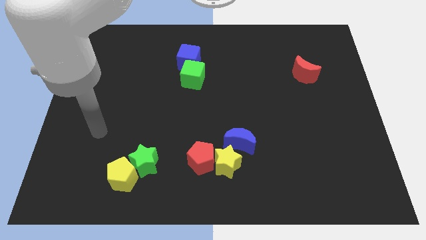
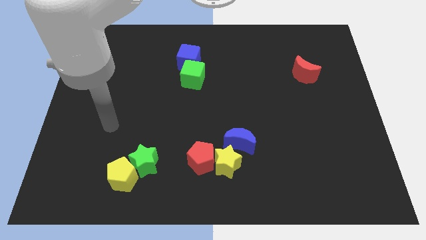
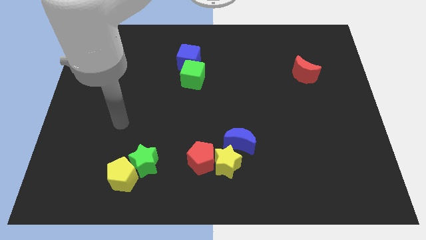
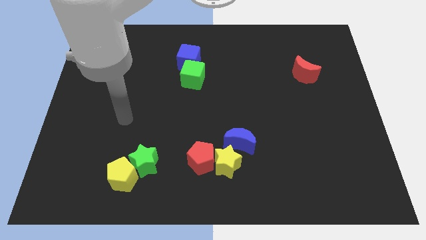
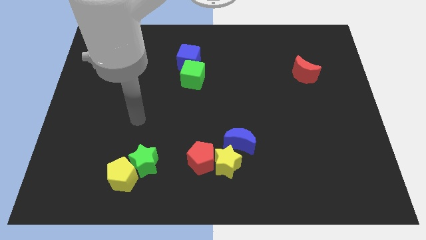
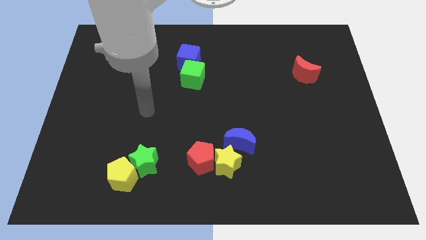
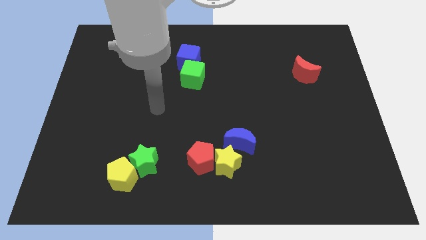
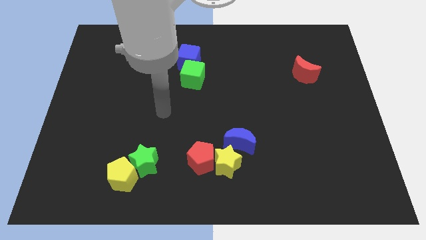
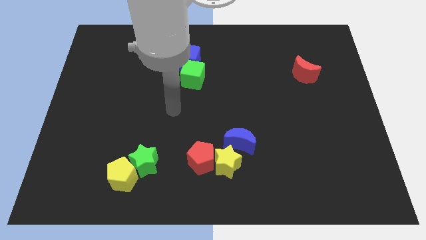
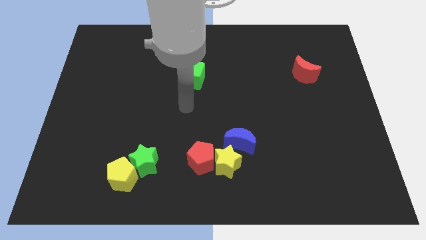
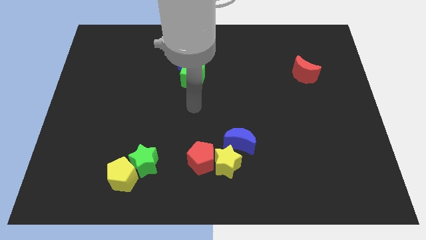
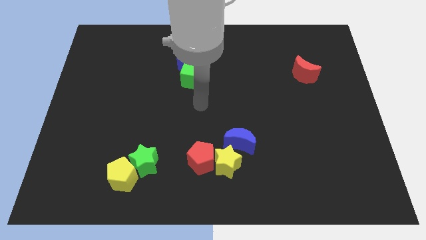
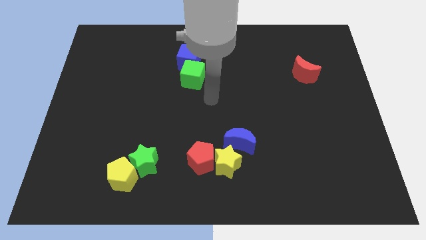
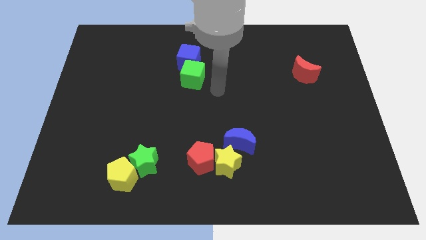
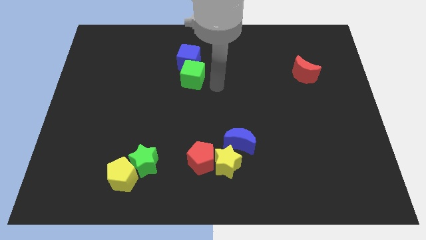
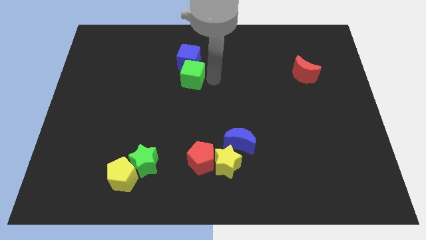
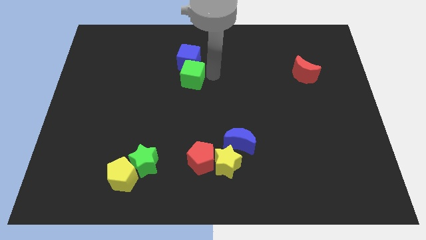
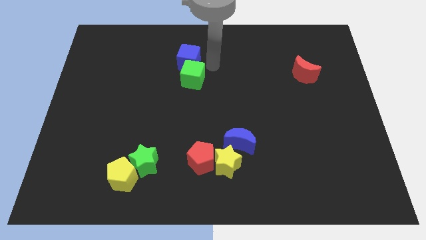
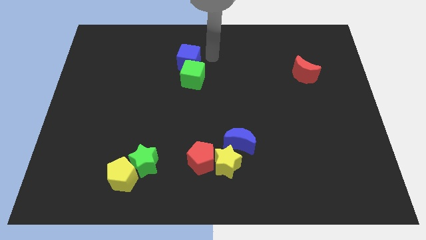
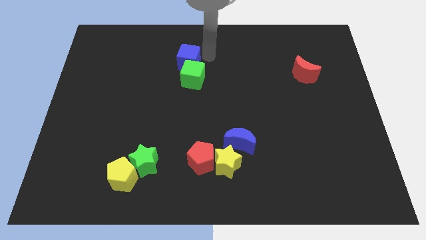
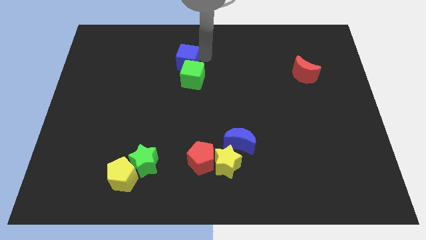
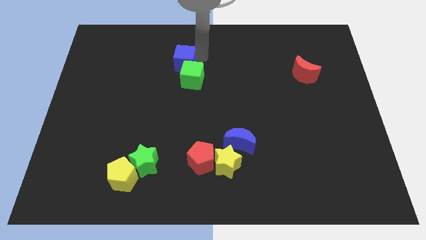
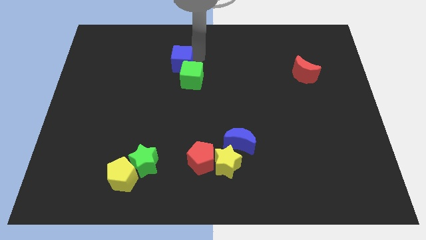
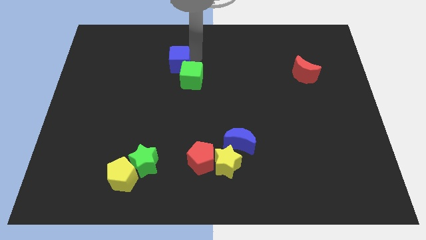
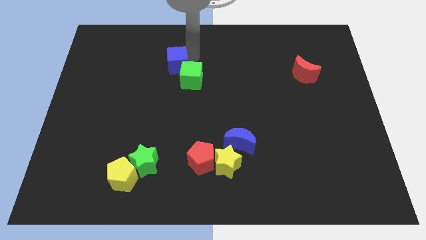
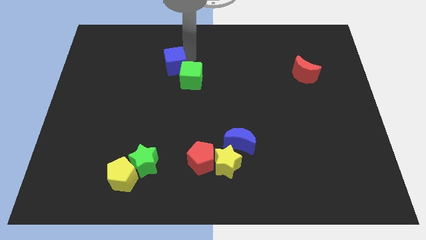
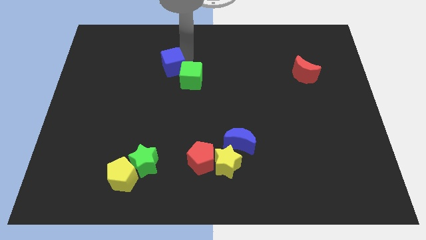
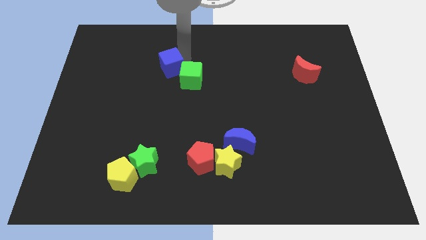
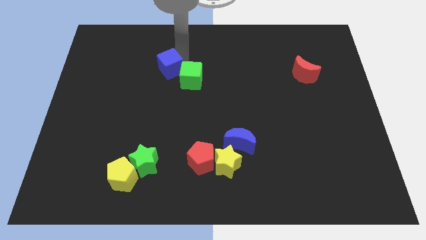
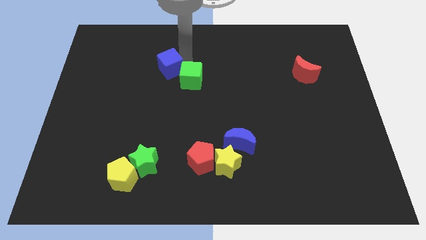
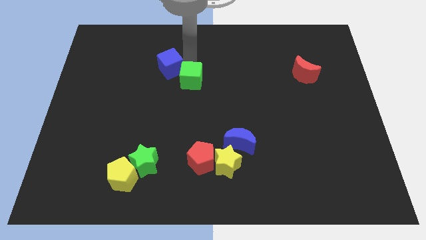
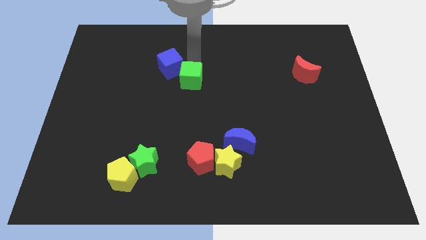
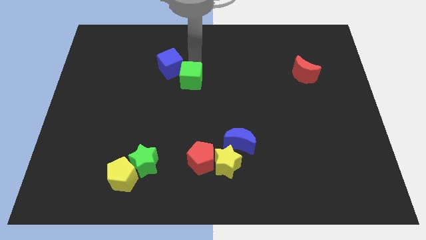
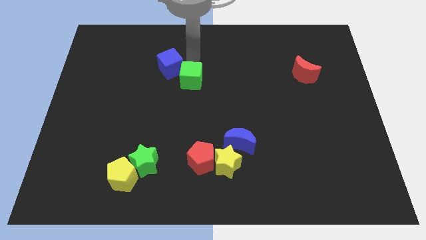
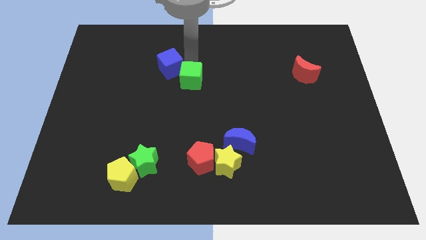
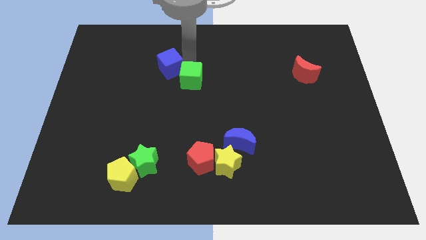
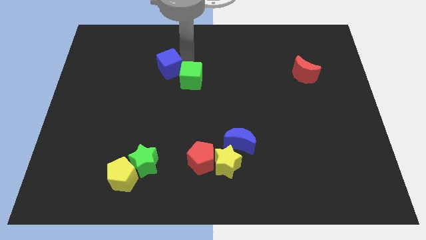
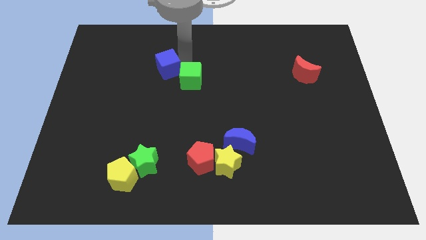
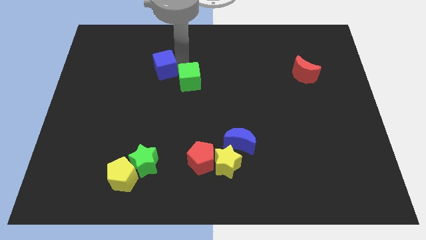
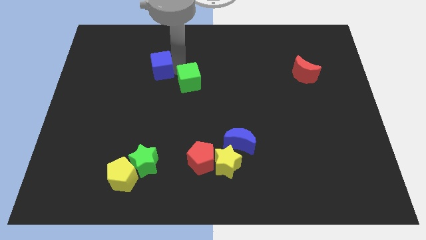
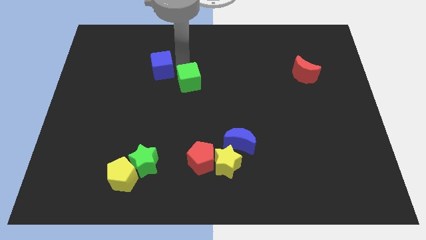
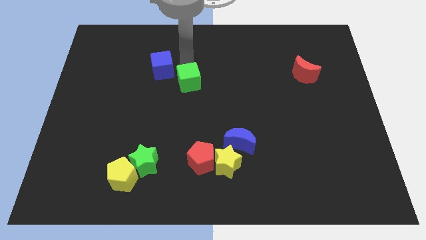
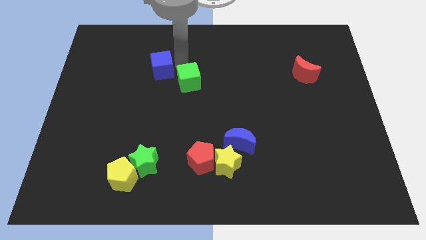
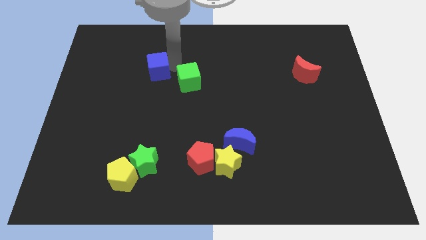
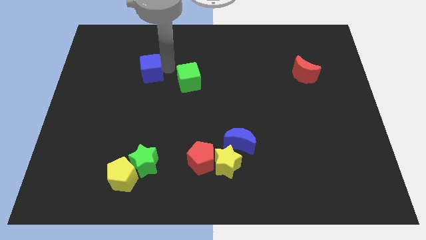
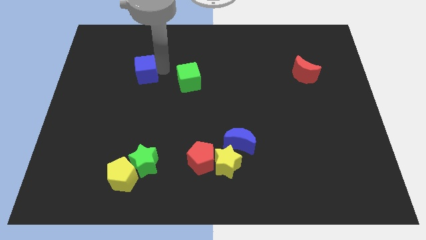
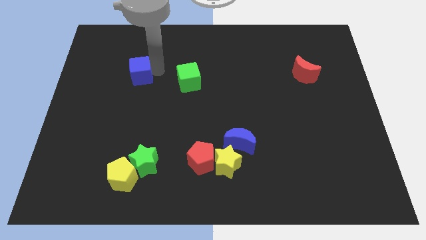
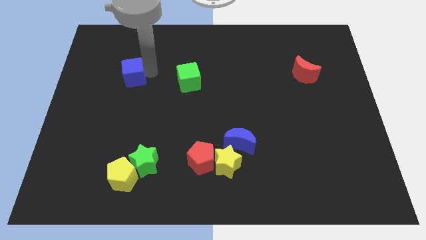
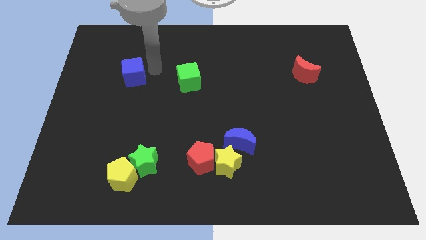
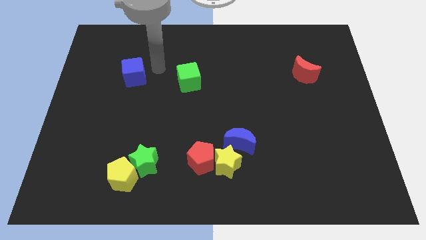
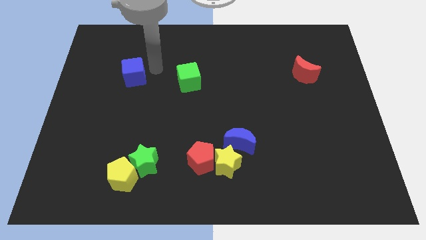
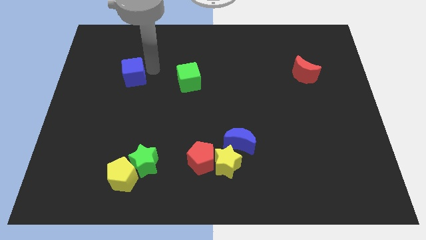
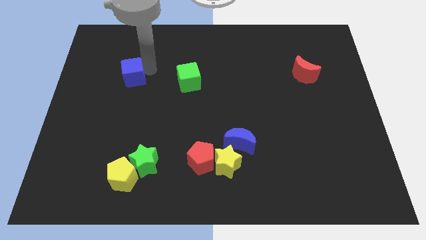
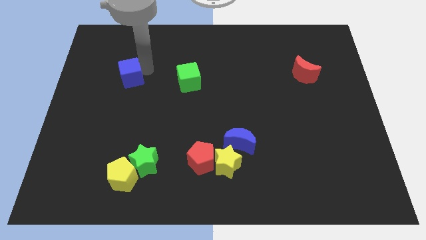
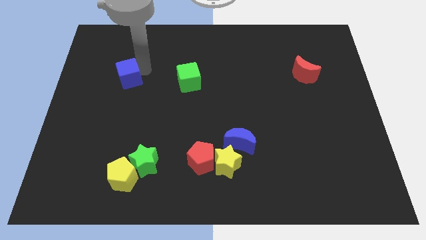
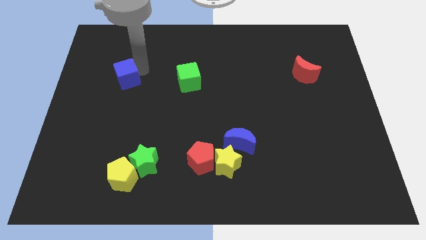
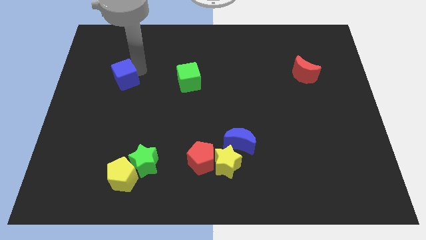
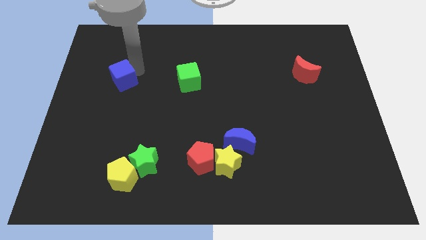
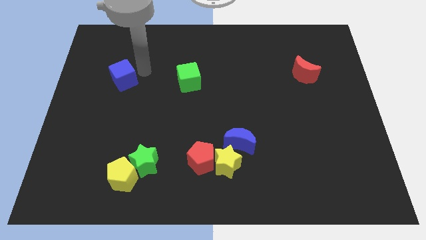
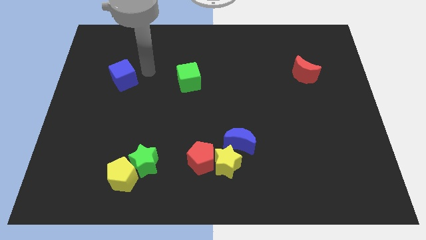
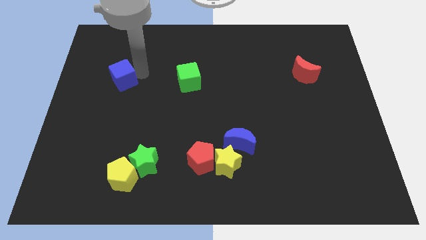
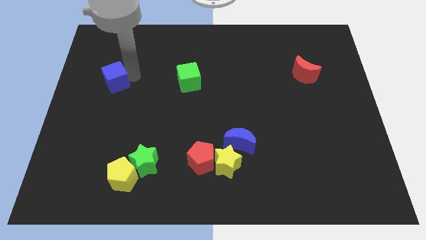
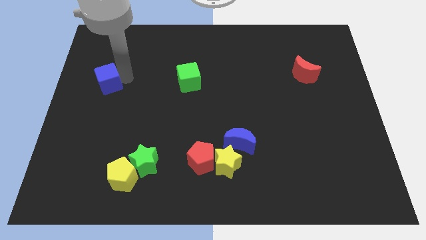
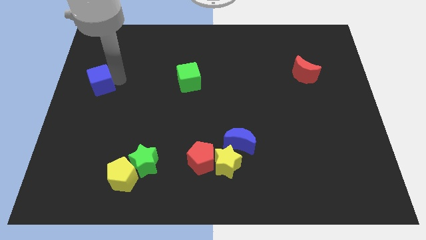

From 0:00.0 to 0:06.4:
put the blue cube to the center left

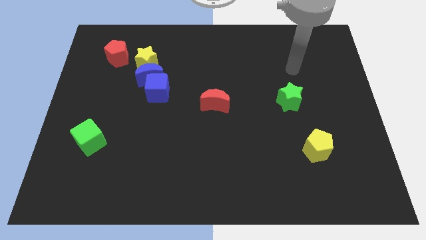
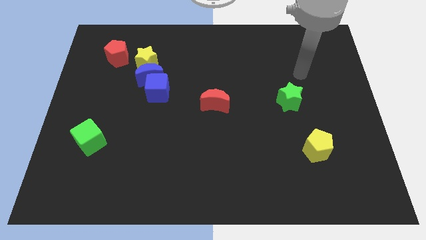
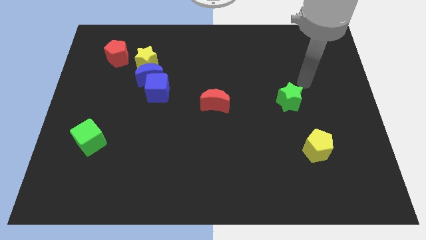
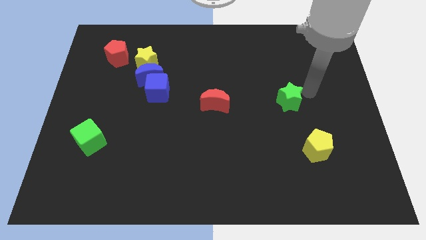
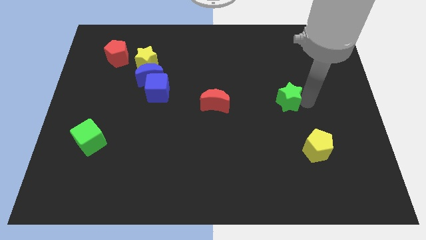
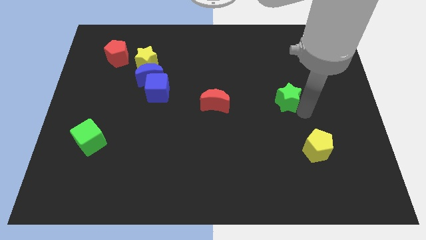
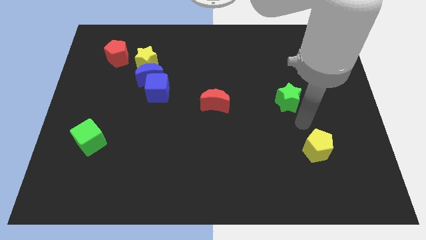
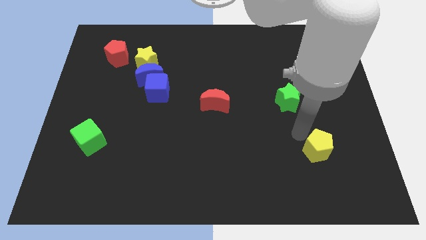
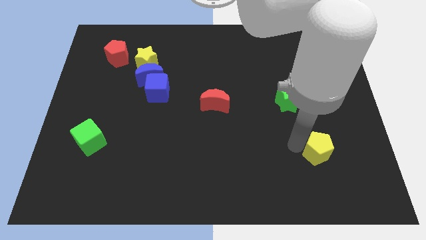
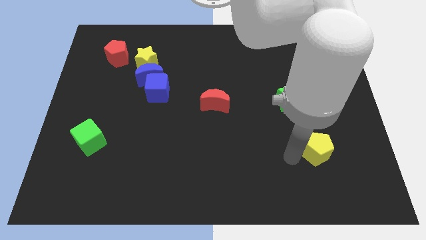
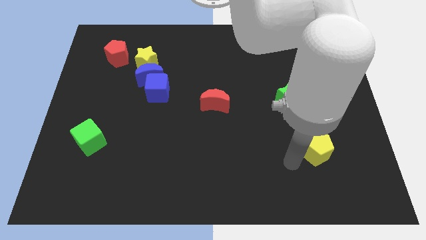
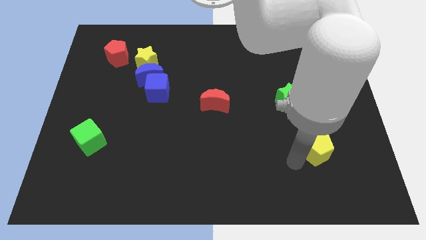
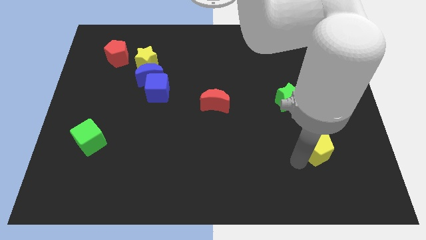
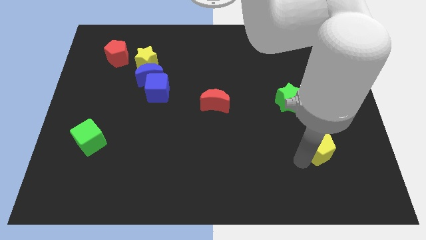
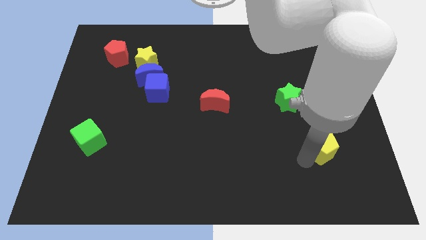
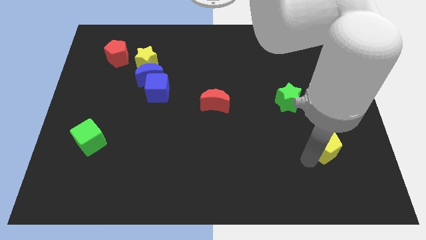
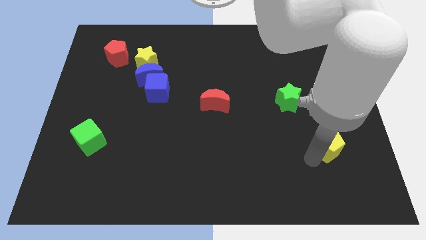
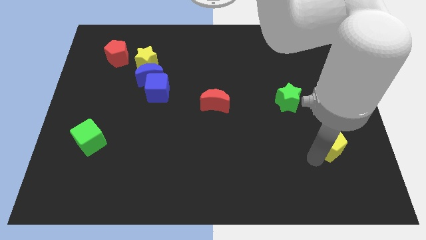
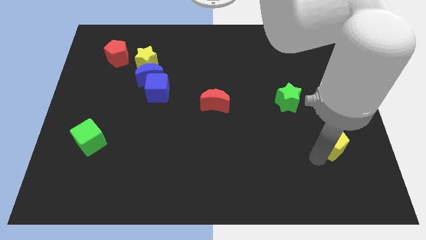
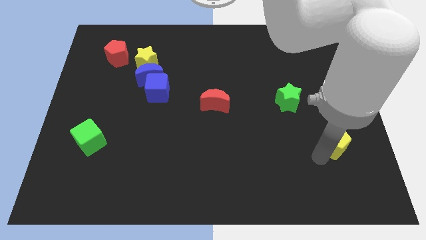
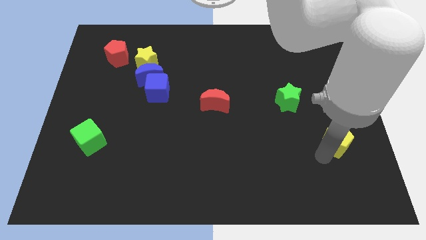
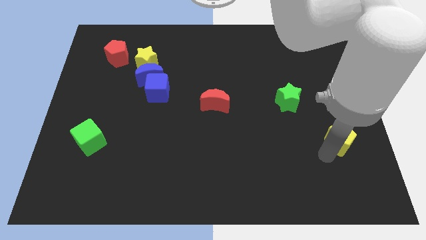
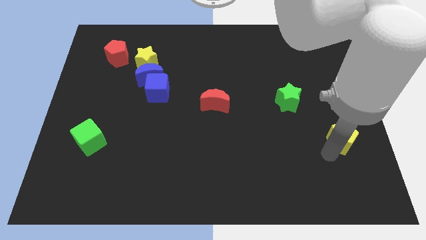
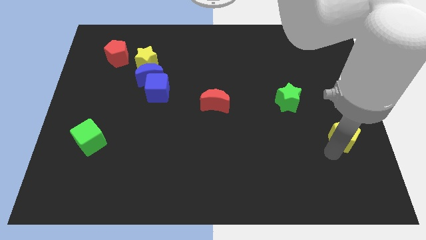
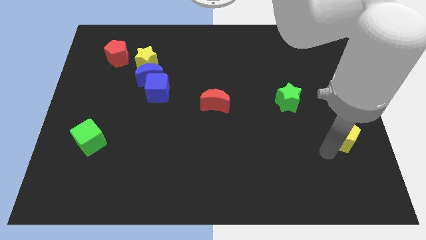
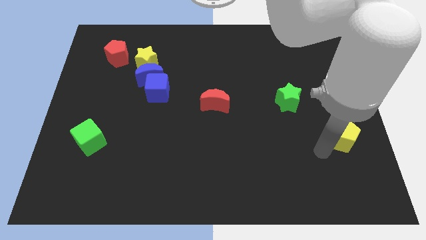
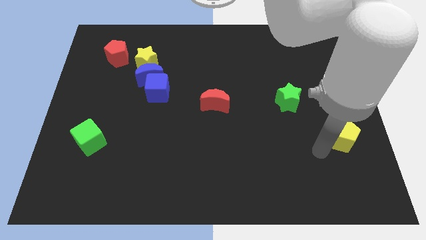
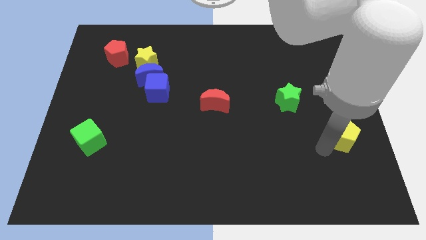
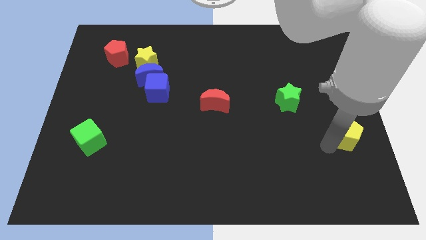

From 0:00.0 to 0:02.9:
push the yellow pentagon to the right side
